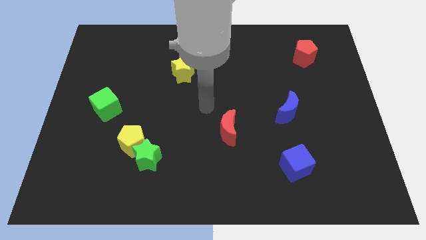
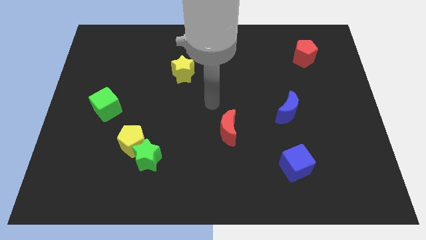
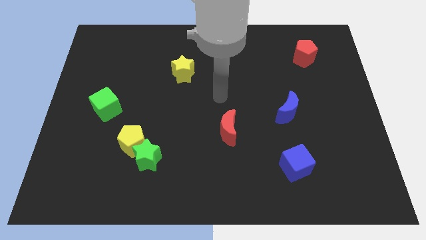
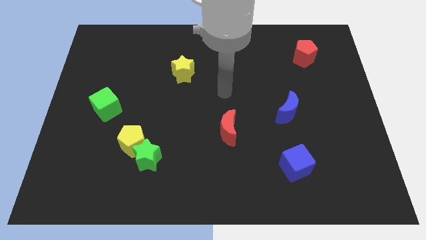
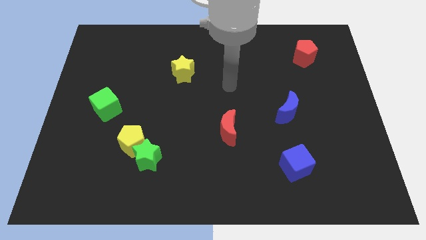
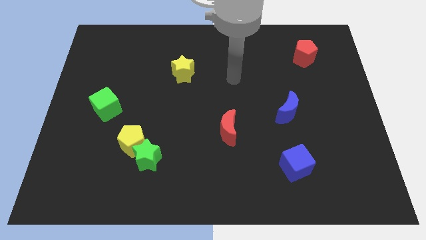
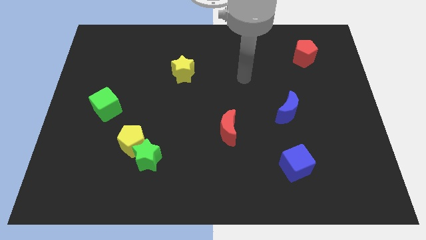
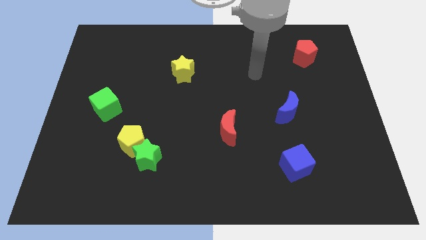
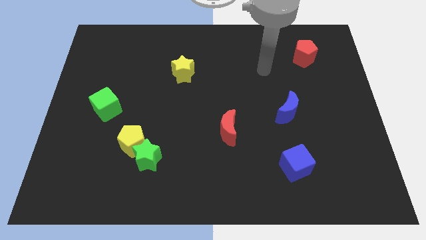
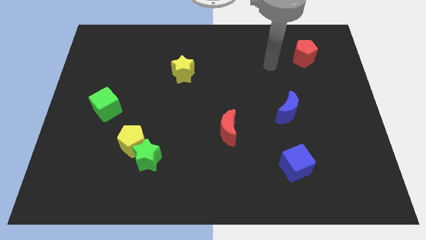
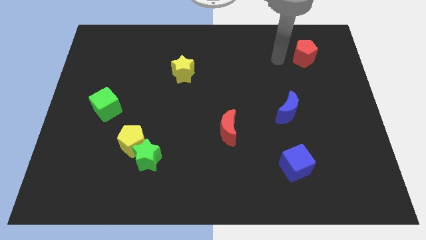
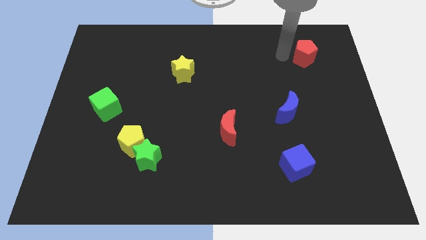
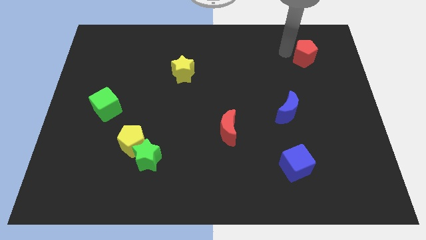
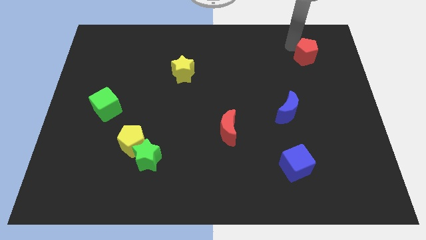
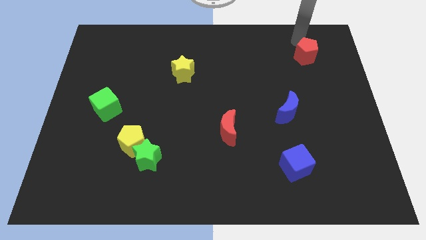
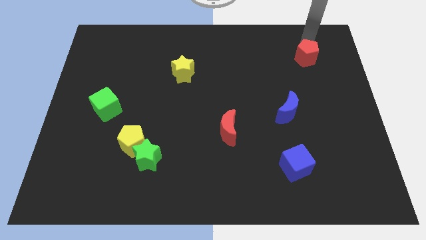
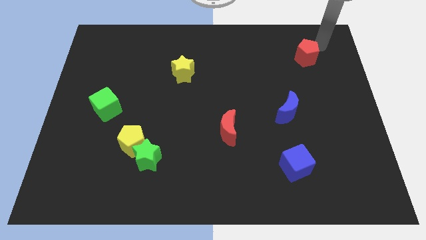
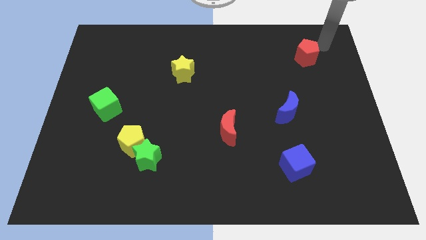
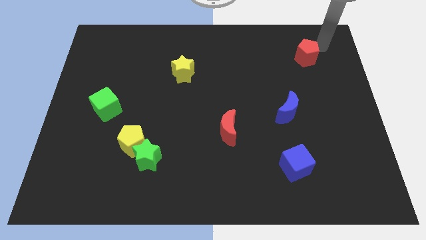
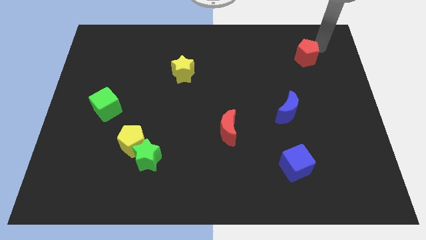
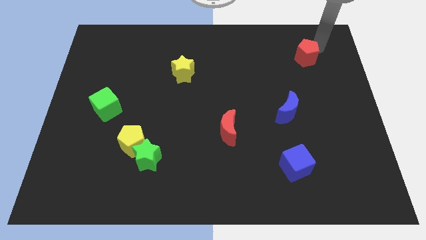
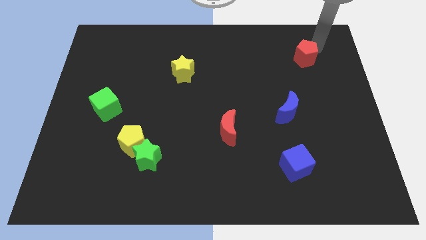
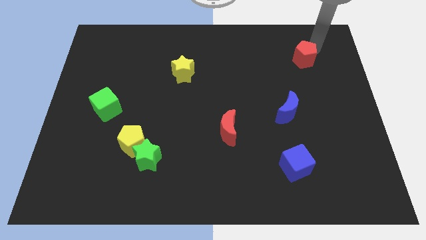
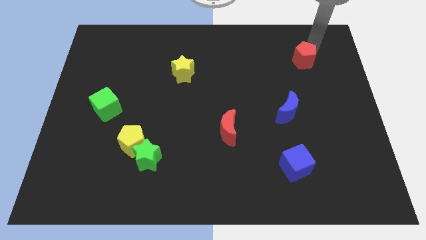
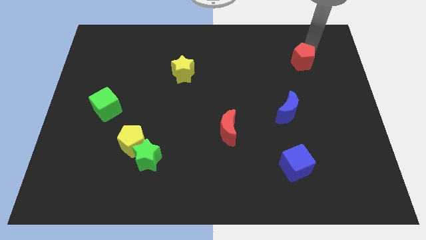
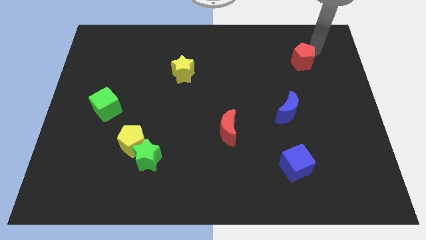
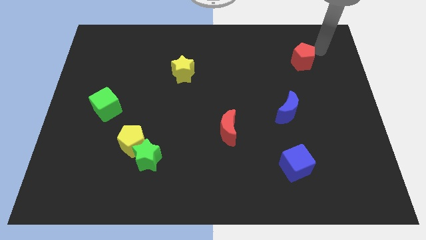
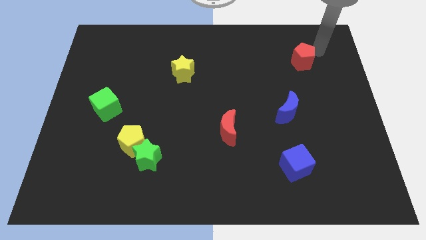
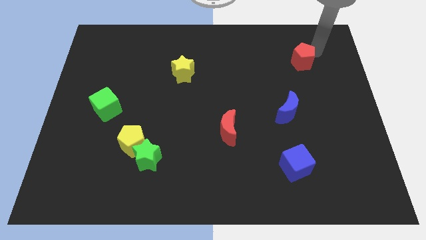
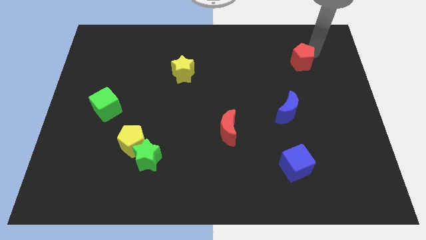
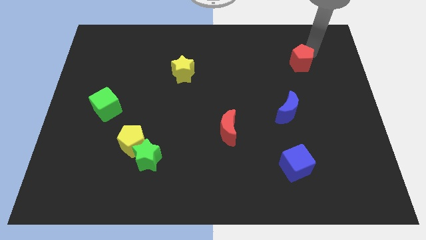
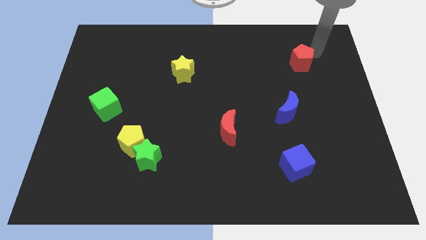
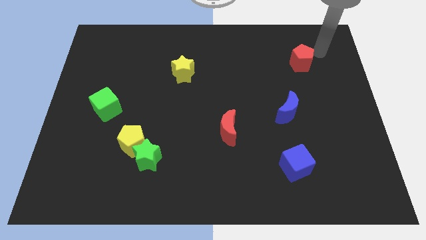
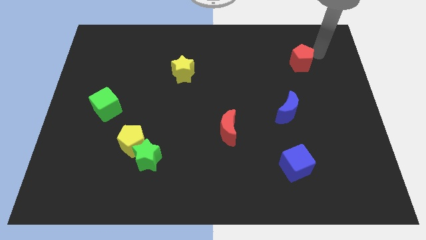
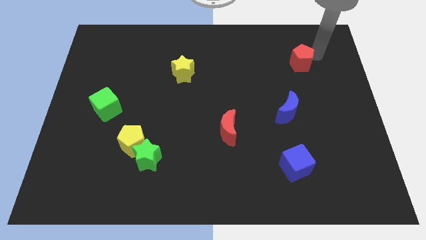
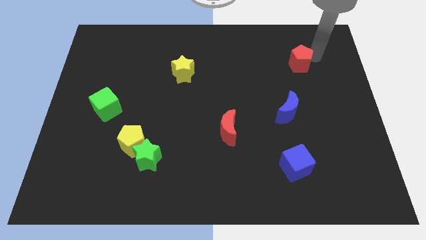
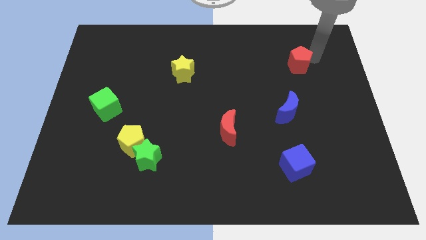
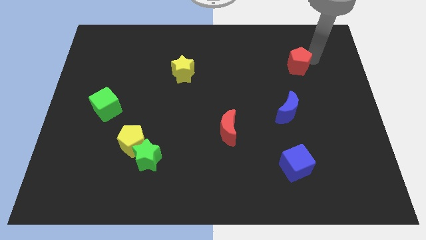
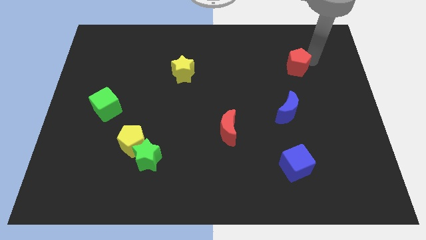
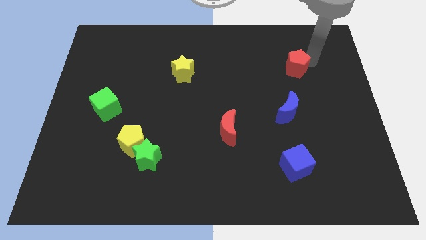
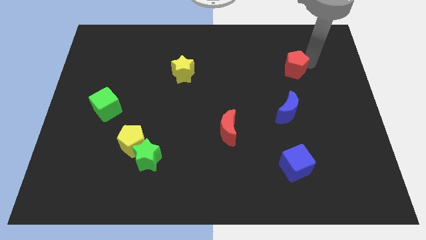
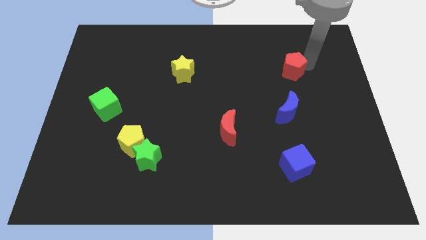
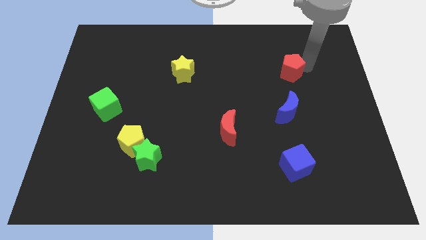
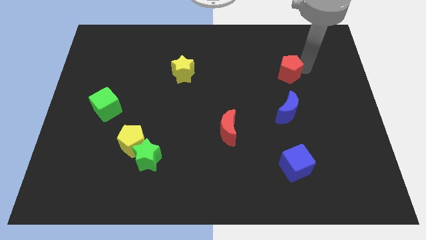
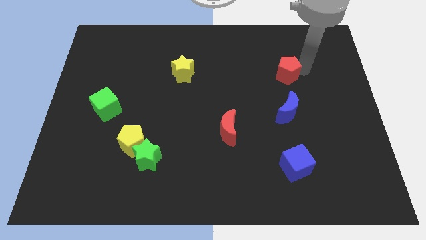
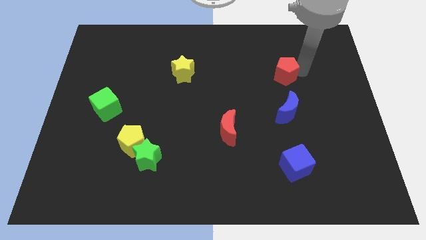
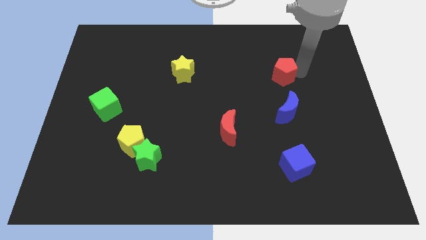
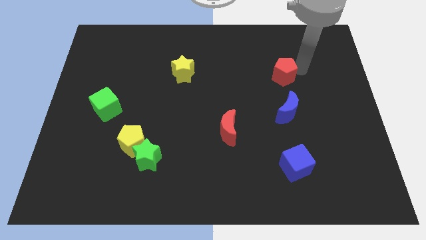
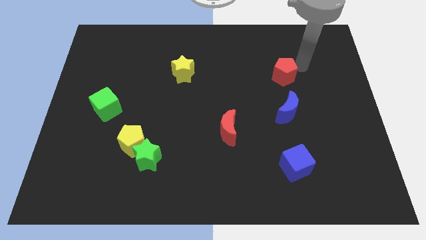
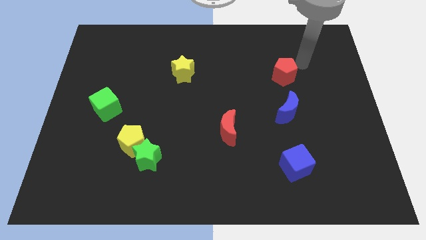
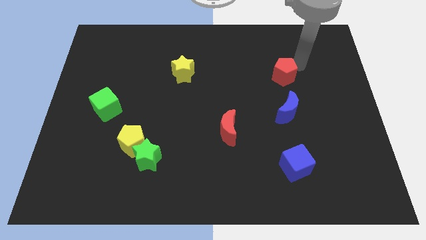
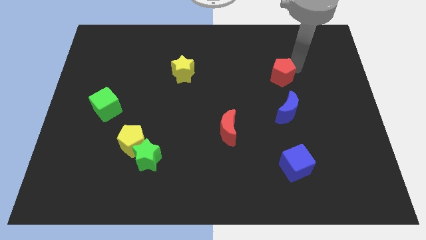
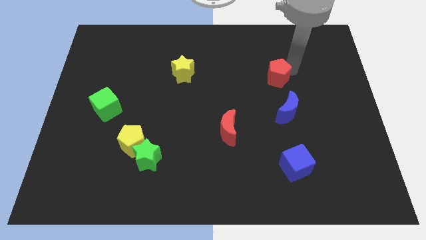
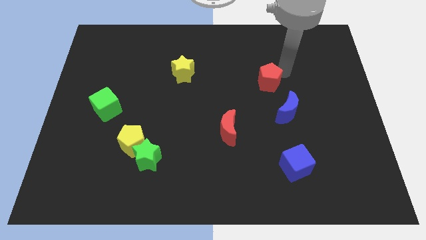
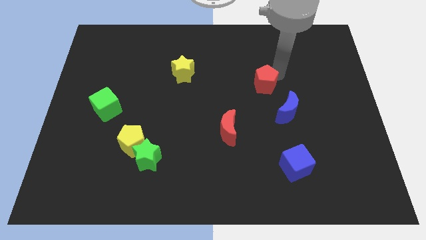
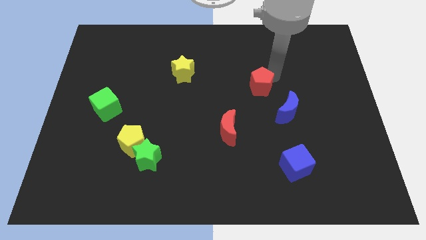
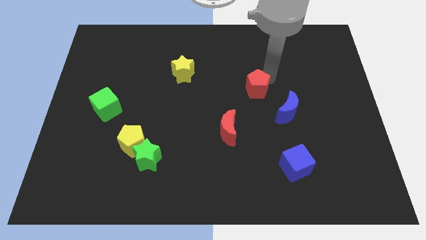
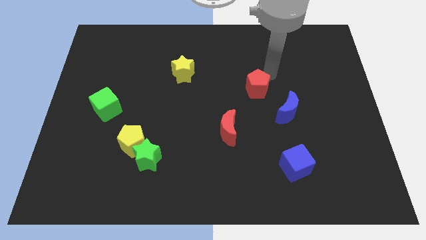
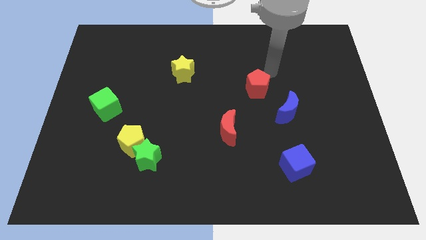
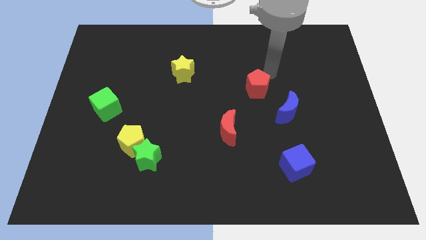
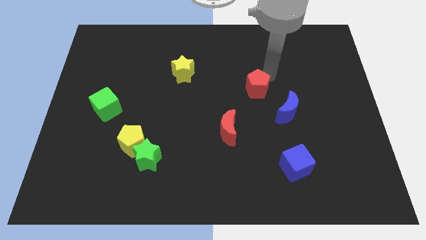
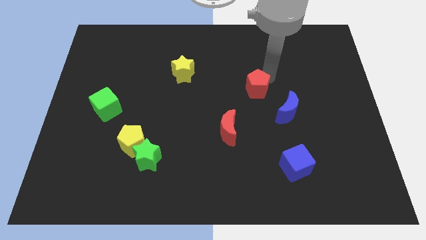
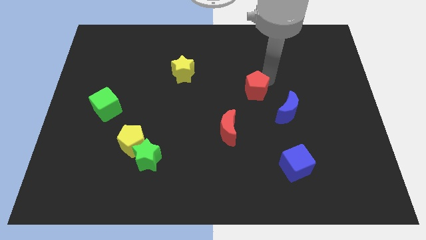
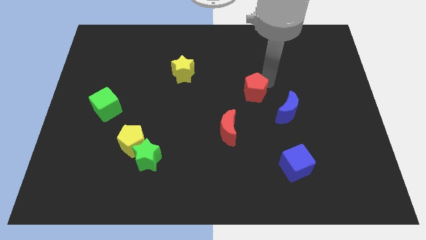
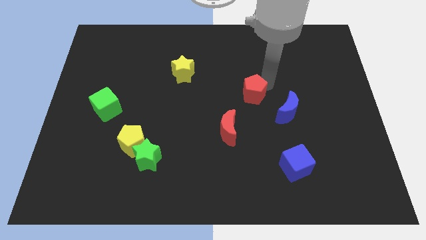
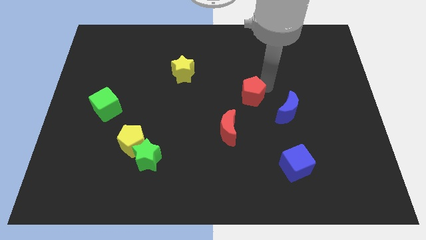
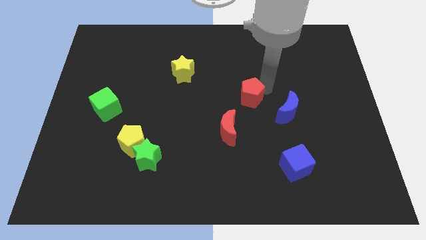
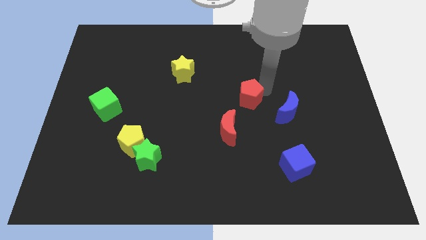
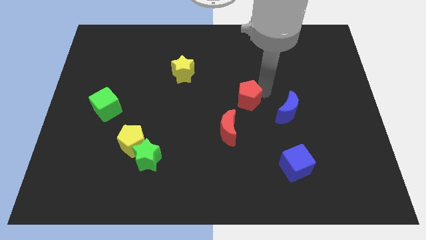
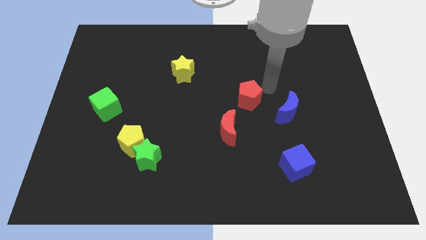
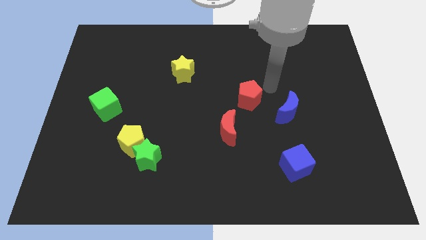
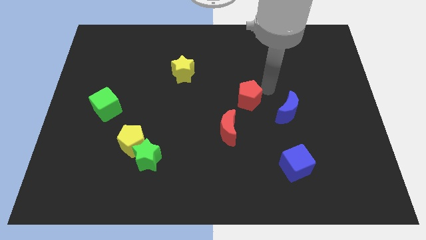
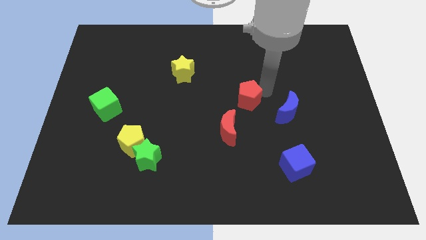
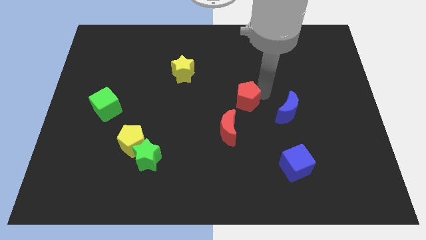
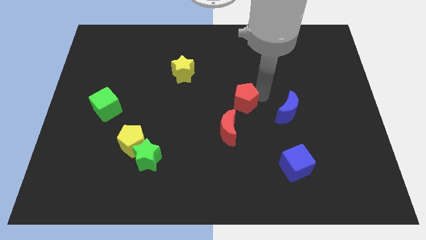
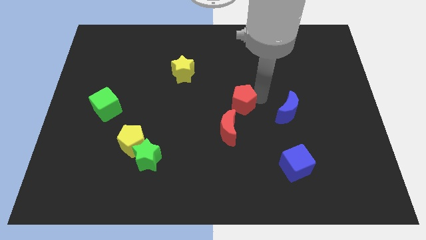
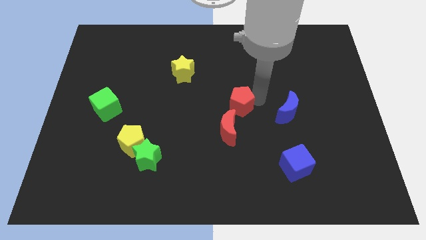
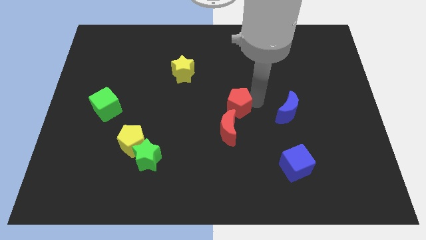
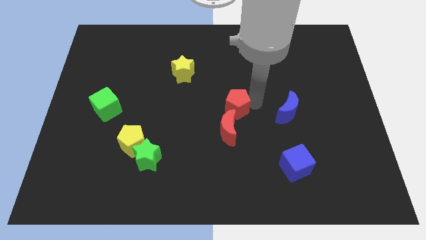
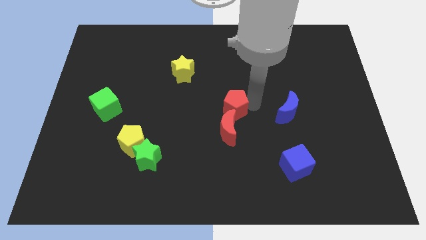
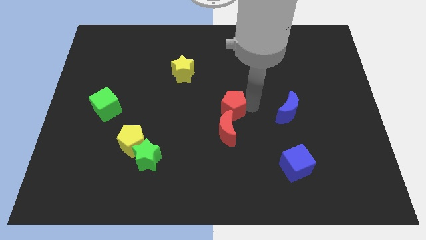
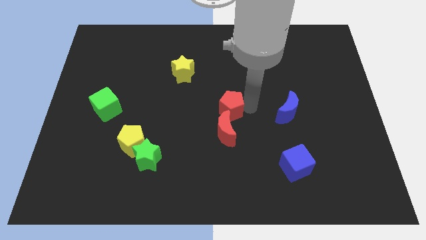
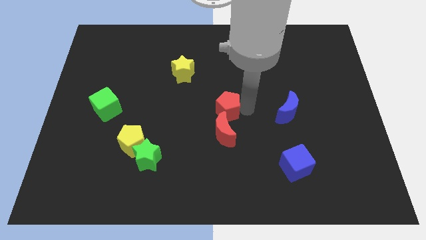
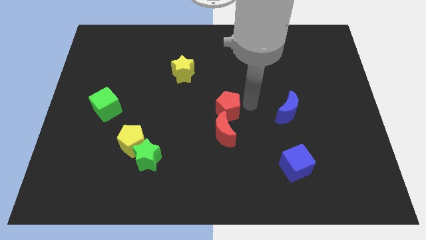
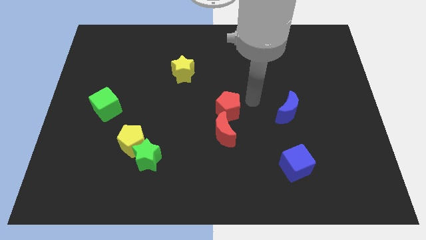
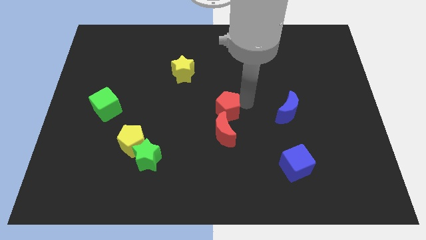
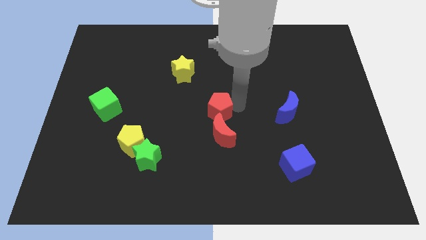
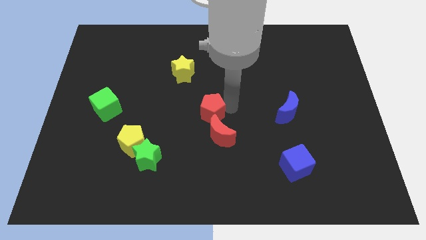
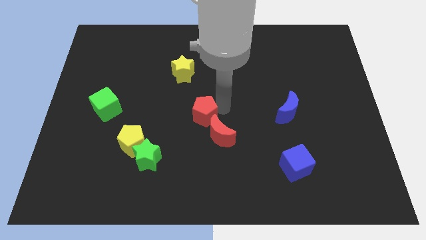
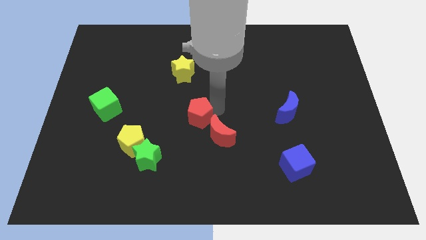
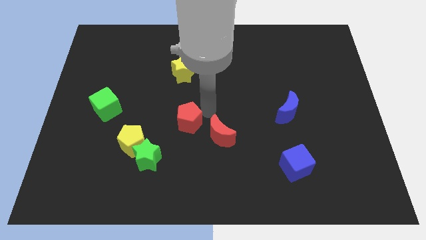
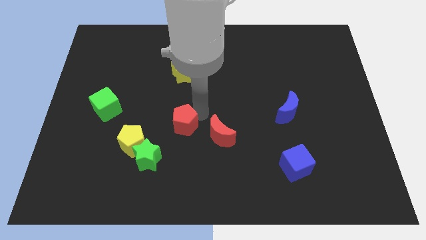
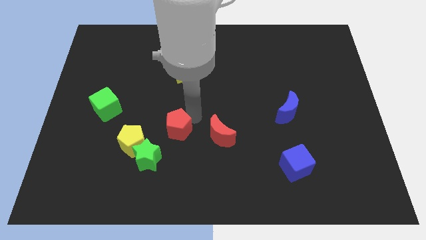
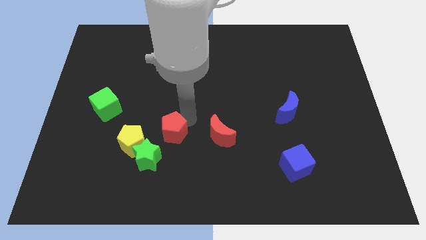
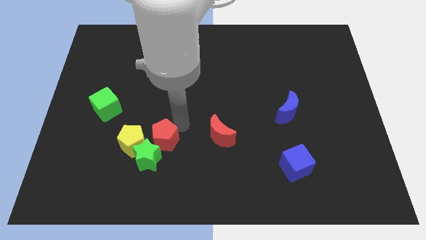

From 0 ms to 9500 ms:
move the red pentagon next to the green star
